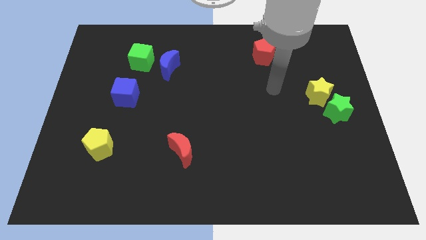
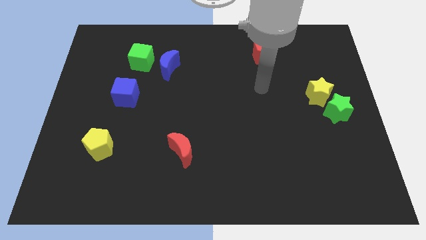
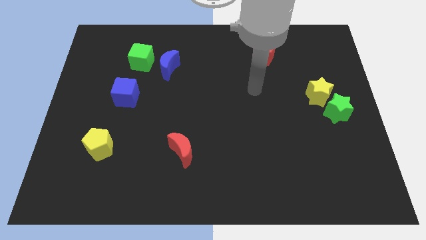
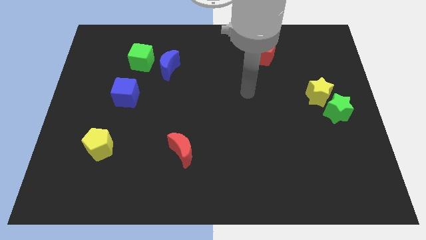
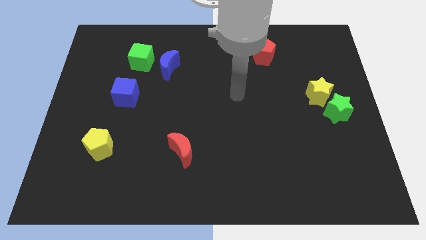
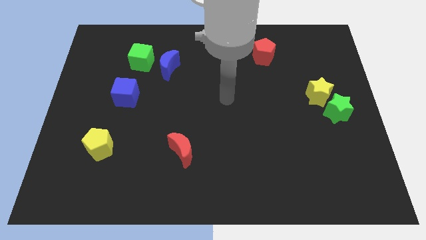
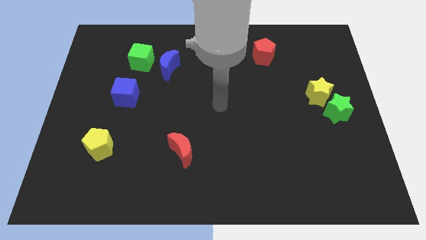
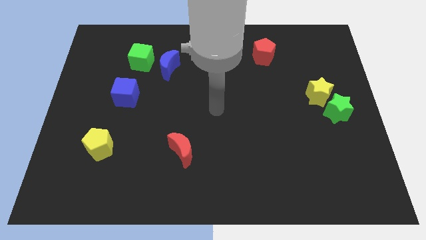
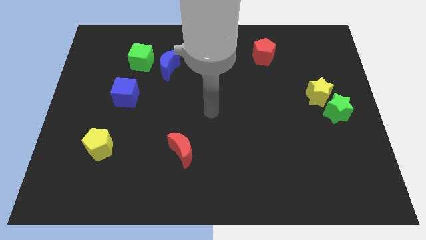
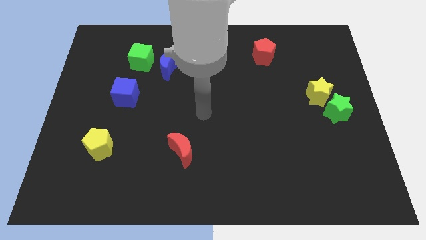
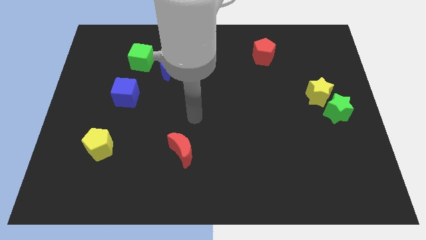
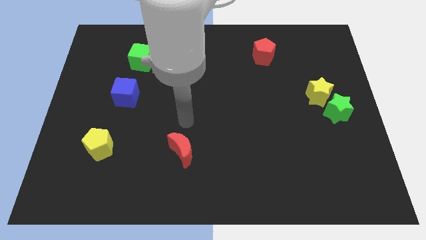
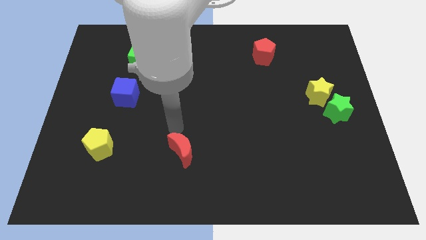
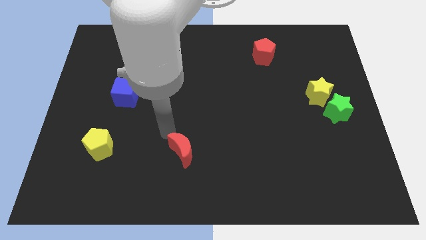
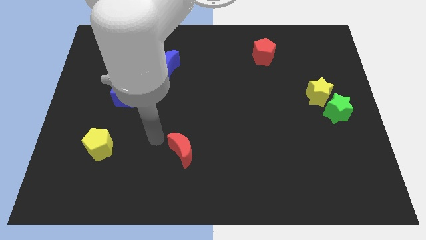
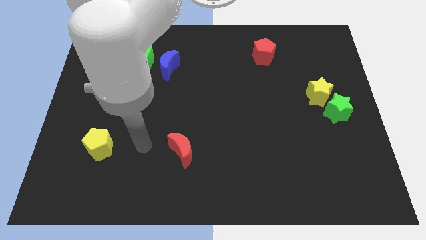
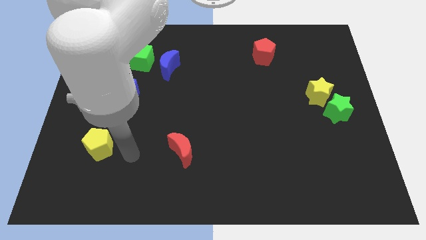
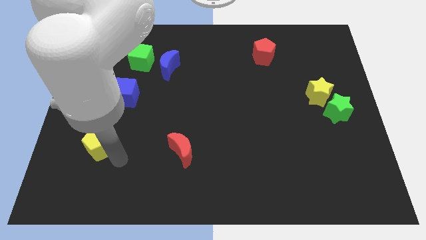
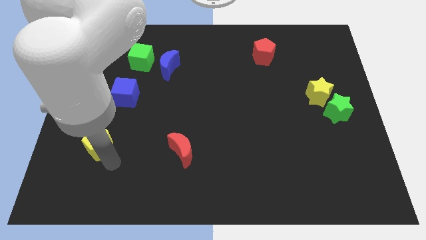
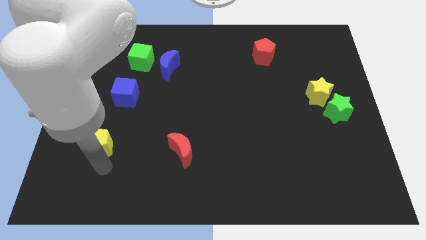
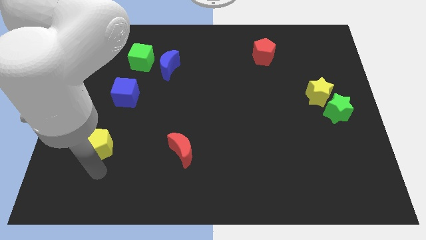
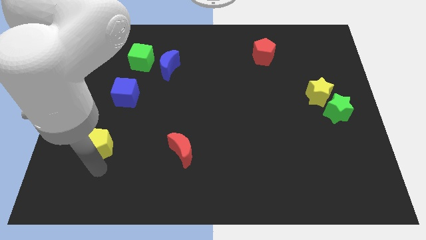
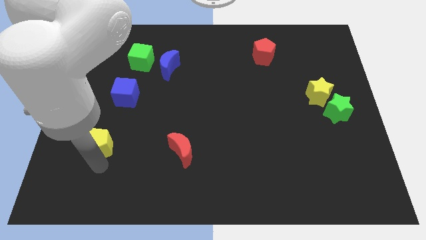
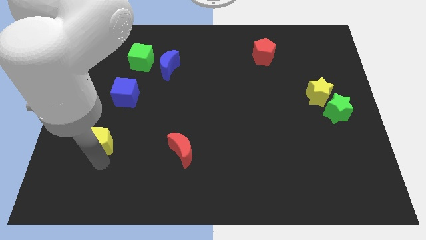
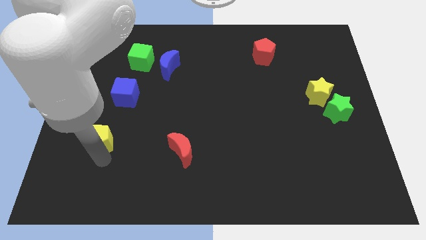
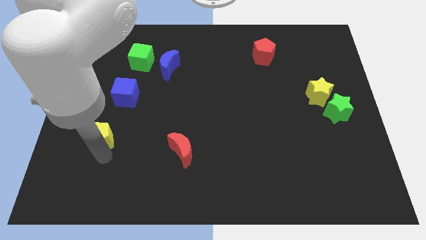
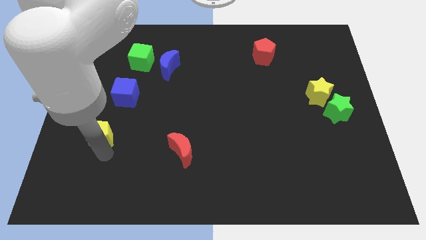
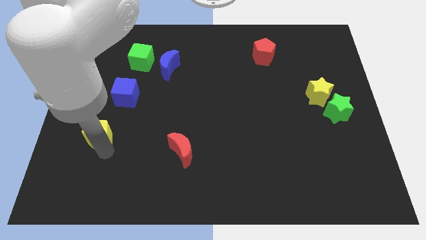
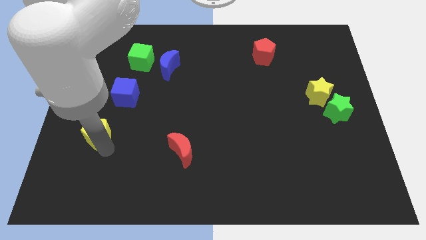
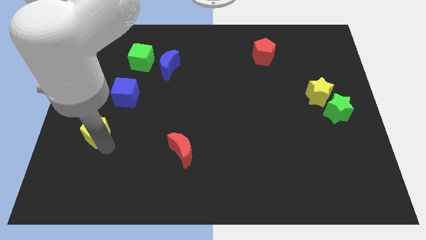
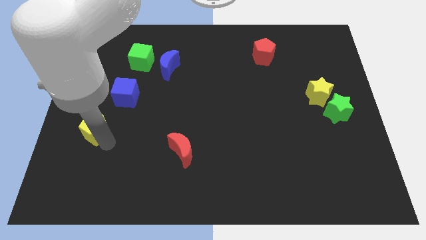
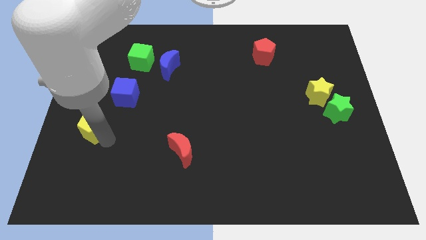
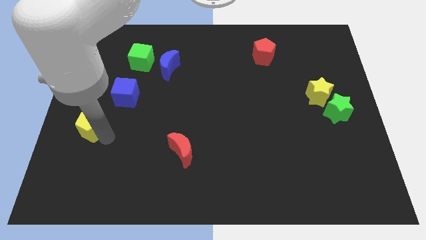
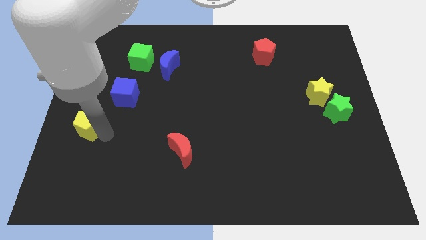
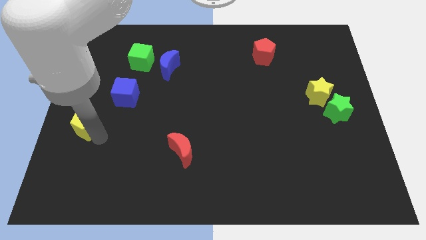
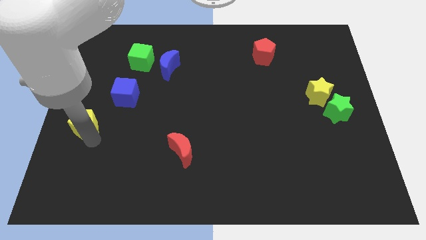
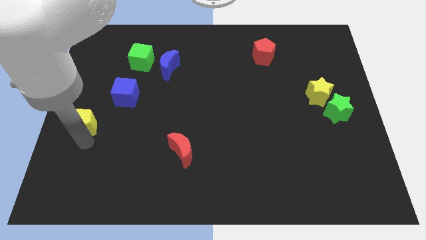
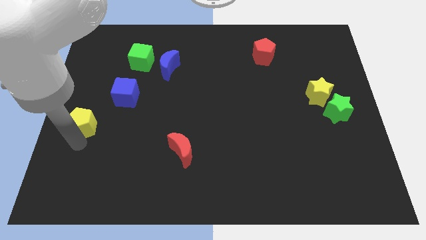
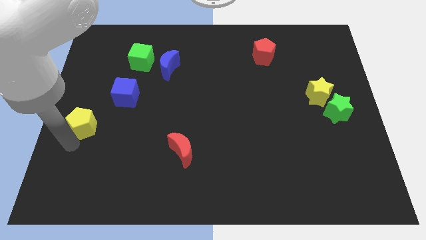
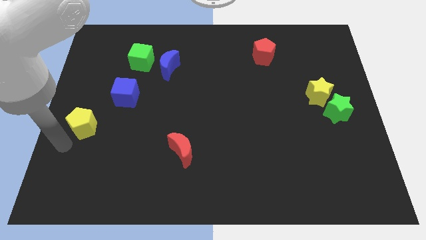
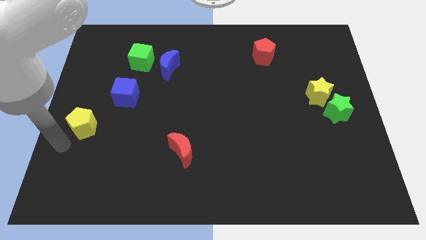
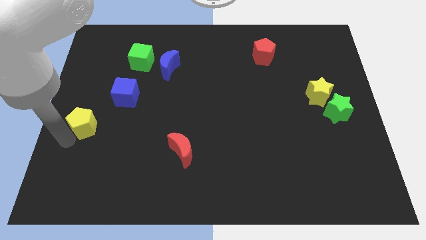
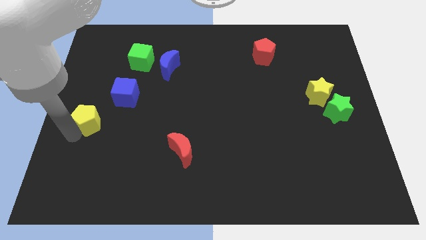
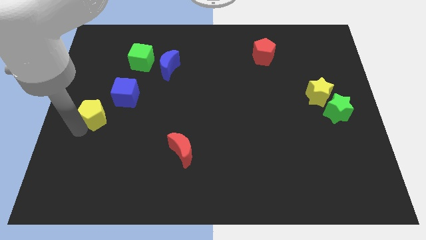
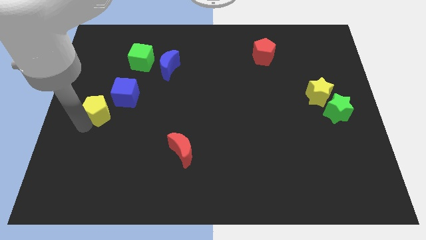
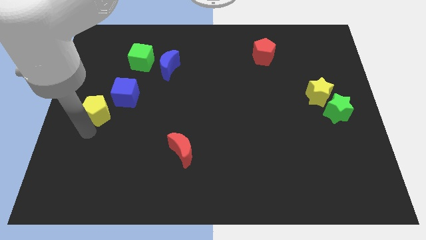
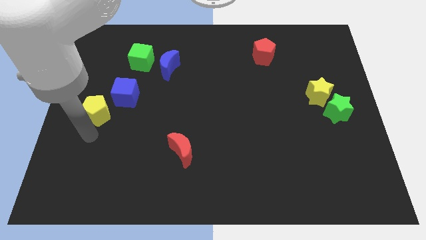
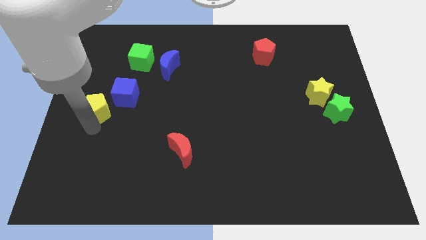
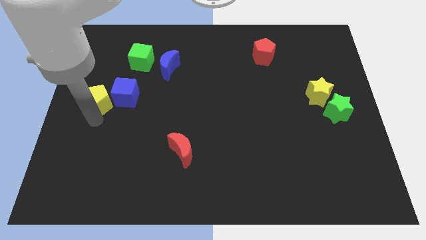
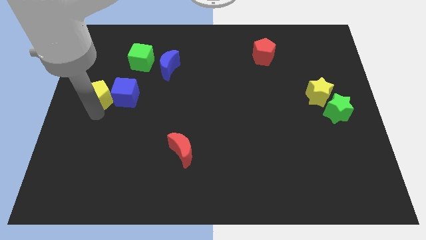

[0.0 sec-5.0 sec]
push the yellow pentagon diagonally up and to the left of the blue cube

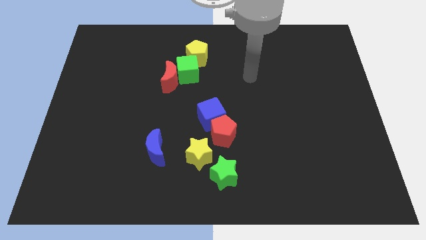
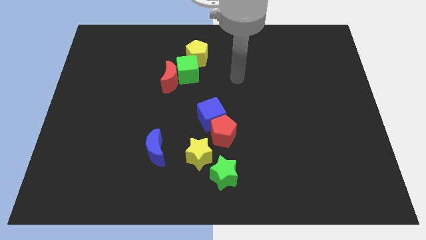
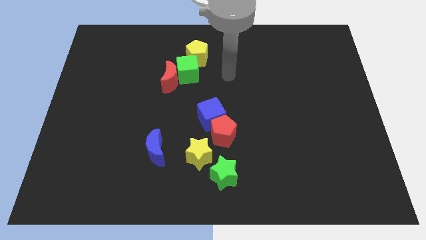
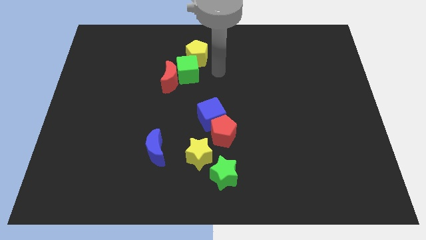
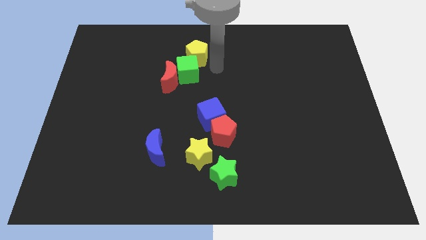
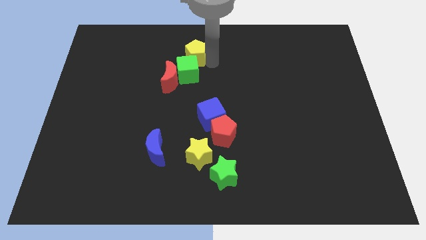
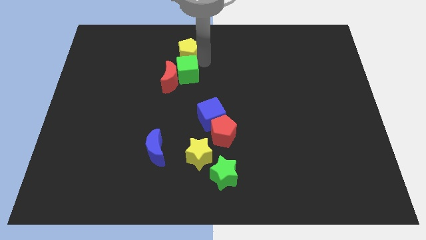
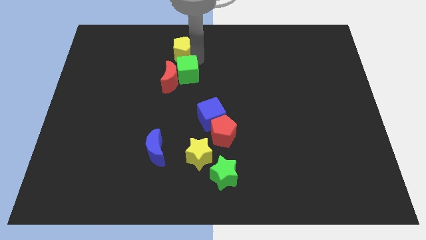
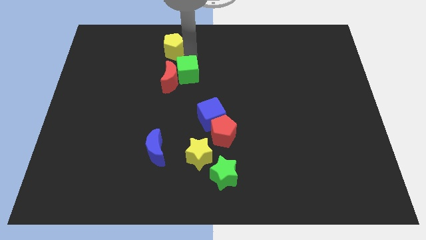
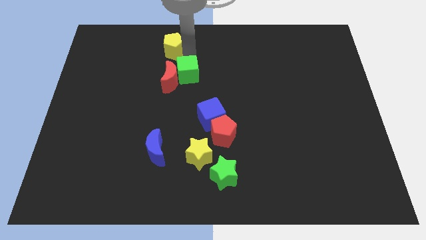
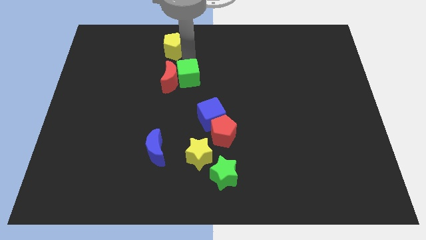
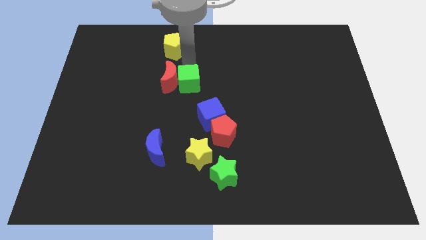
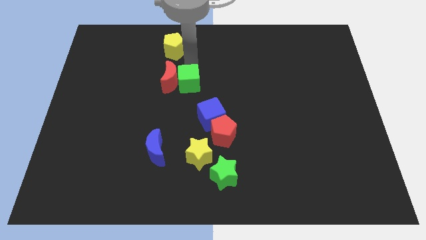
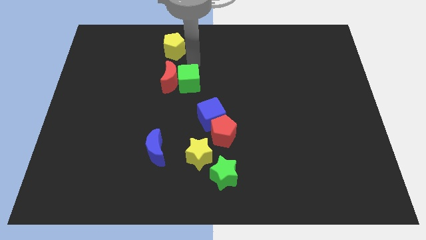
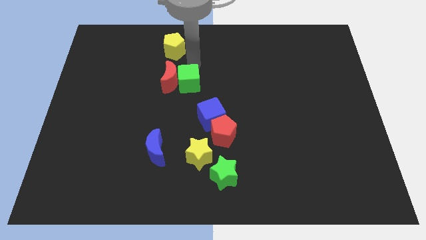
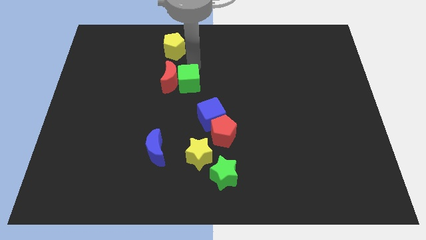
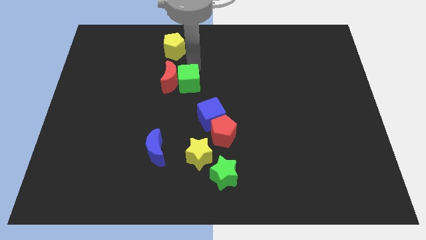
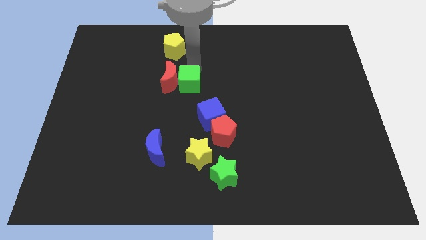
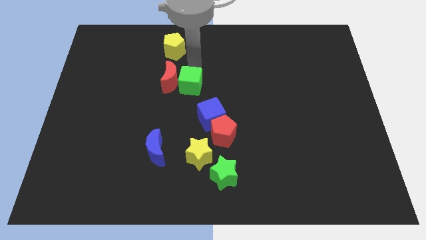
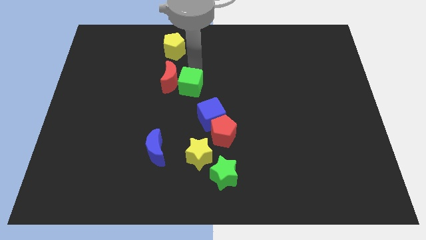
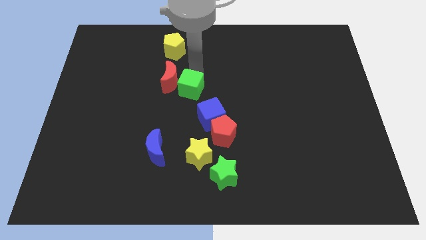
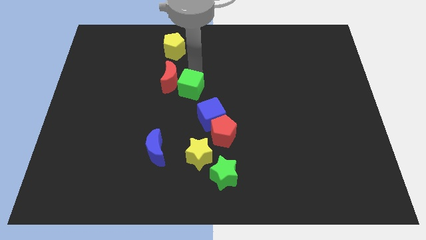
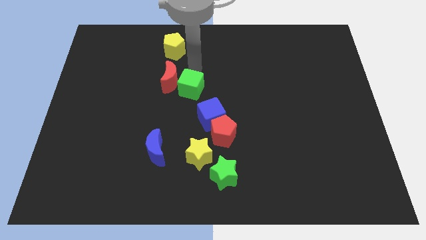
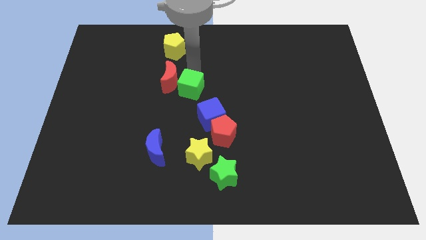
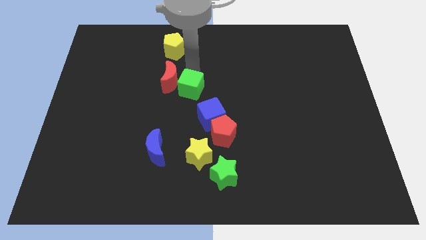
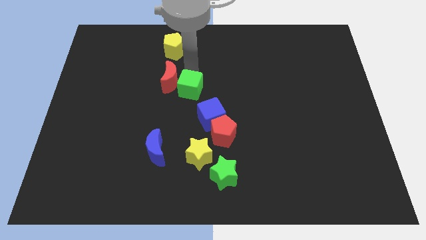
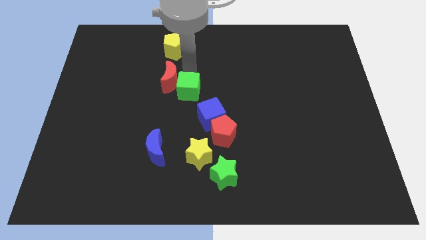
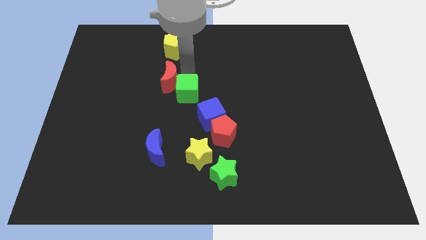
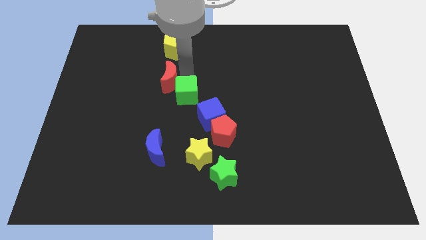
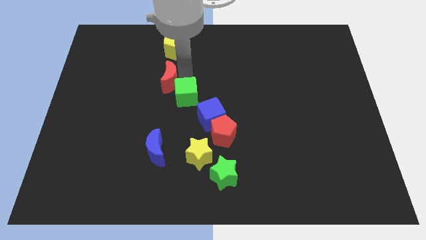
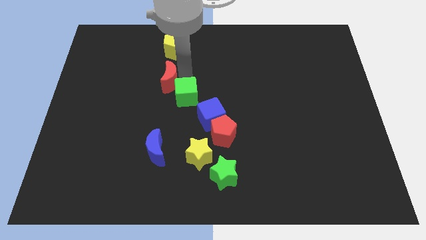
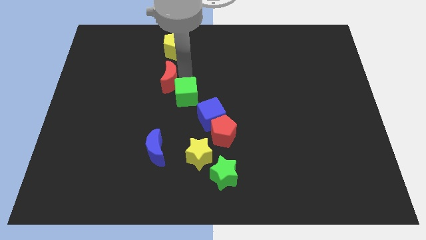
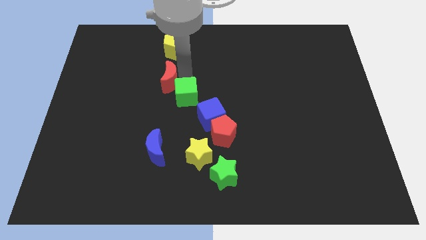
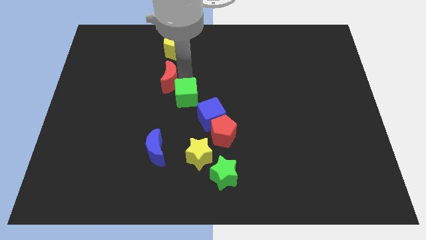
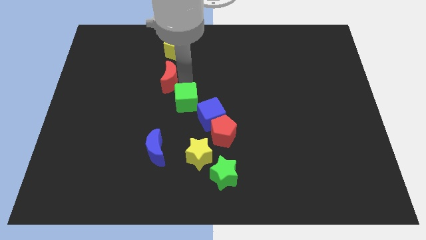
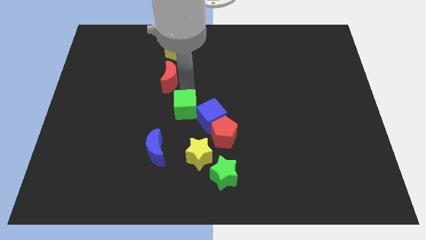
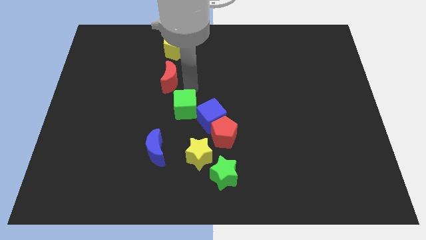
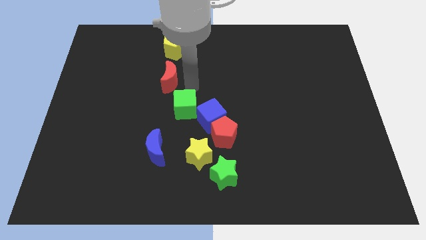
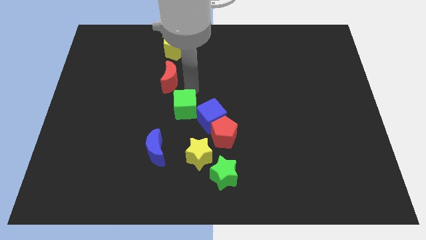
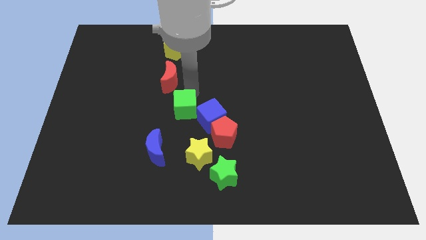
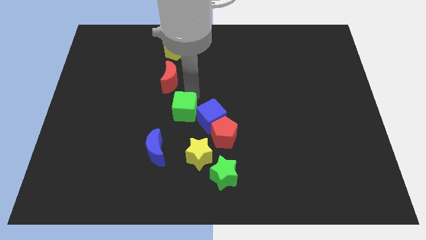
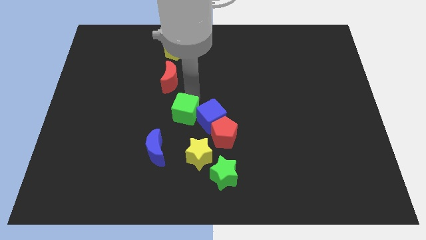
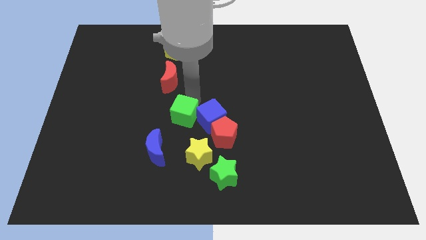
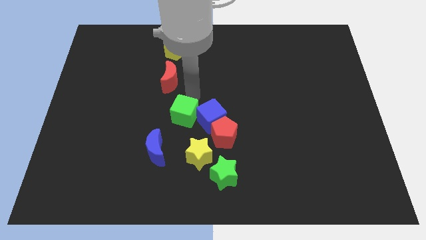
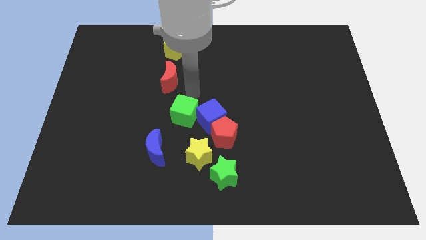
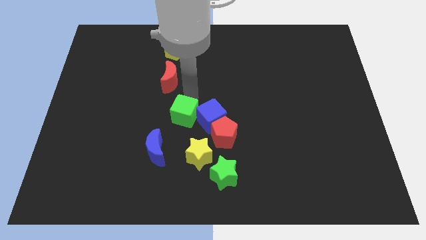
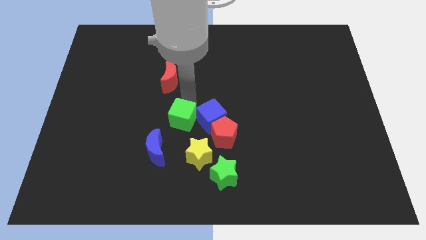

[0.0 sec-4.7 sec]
slide the green cube to the left of the red pentagon
